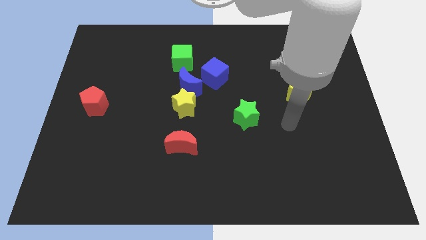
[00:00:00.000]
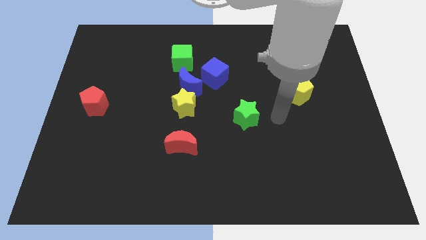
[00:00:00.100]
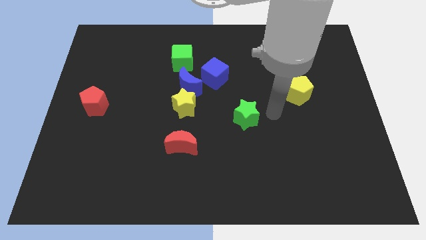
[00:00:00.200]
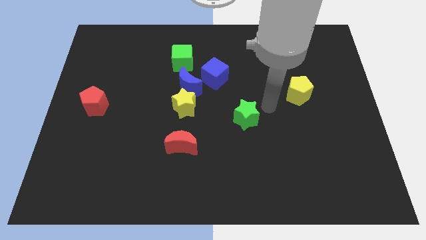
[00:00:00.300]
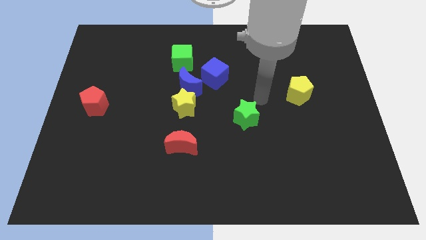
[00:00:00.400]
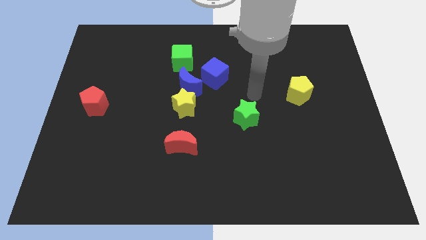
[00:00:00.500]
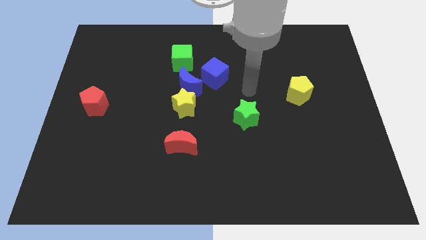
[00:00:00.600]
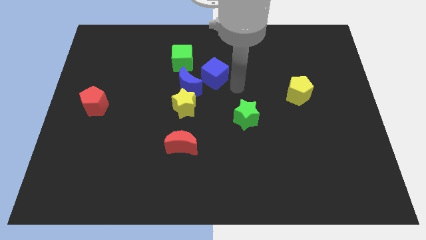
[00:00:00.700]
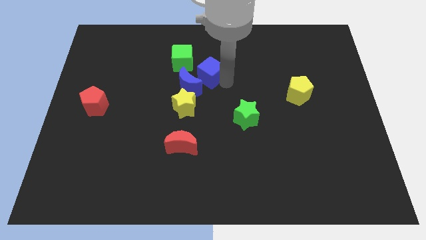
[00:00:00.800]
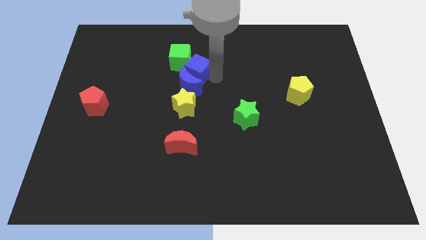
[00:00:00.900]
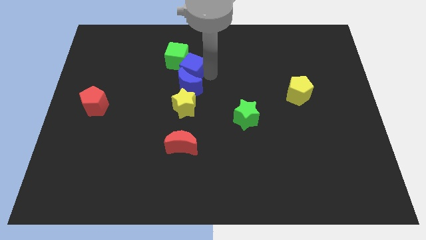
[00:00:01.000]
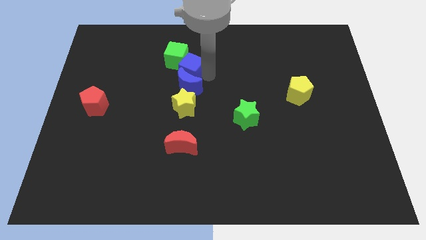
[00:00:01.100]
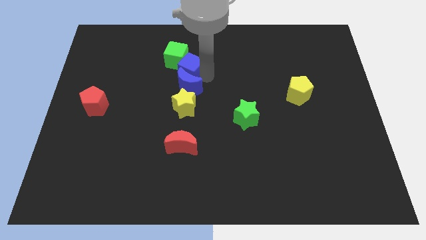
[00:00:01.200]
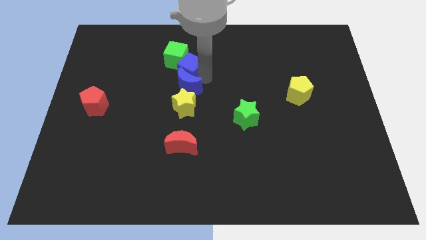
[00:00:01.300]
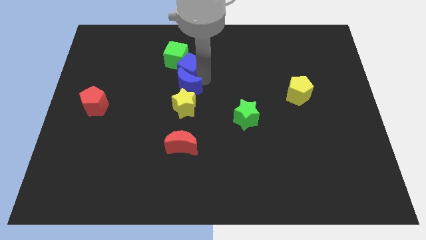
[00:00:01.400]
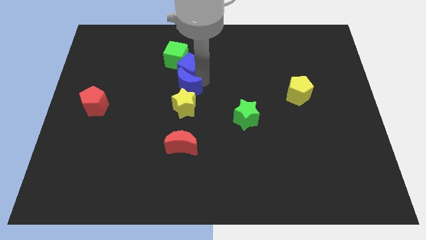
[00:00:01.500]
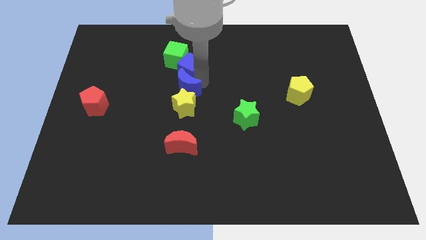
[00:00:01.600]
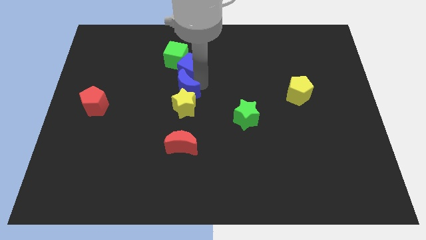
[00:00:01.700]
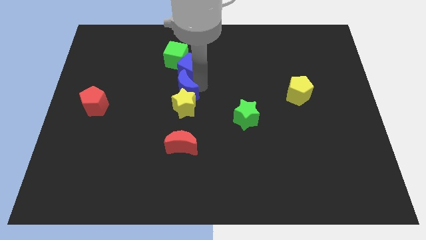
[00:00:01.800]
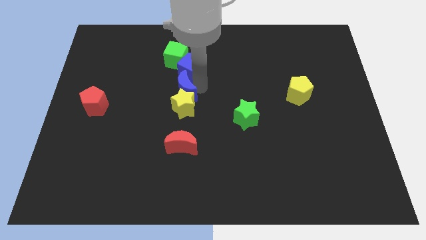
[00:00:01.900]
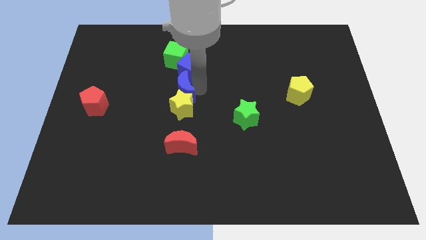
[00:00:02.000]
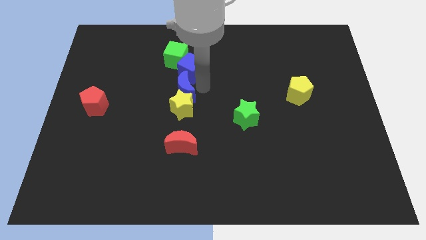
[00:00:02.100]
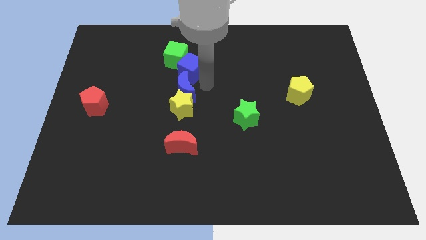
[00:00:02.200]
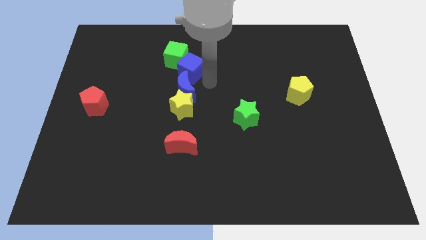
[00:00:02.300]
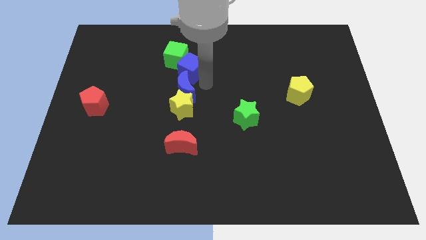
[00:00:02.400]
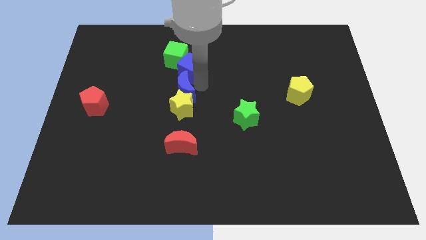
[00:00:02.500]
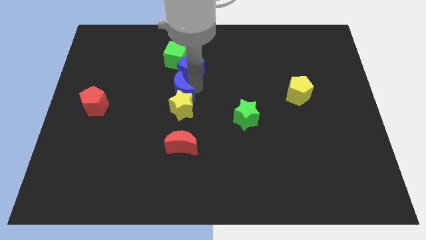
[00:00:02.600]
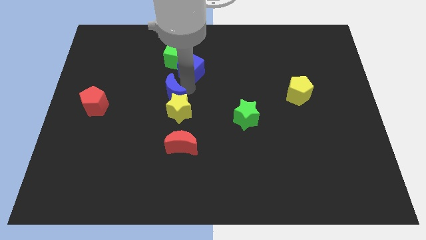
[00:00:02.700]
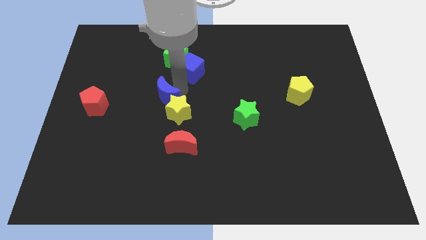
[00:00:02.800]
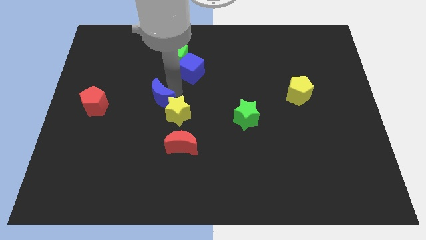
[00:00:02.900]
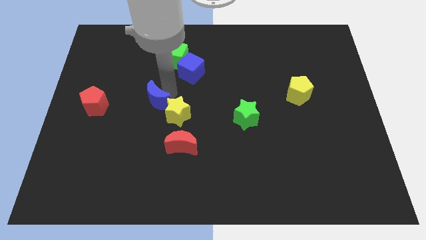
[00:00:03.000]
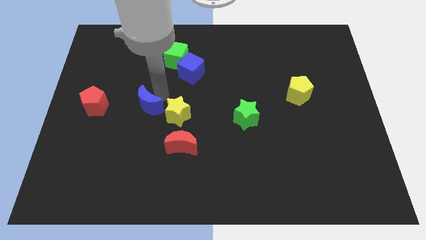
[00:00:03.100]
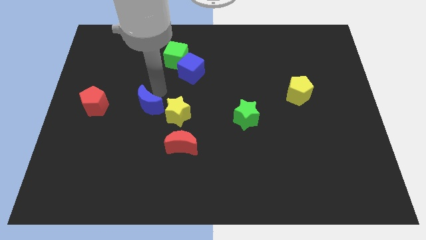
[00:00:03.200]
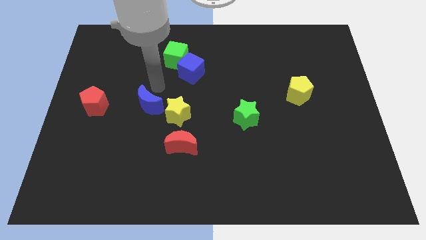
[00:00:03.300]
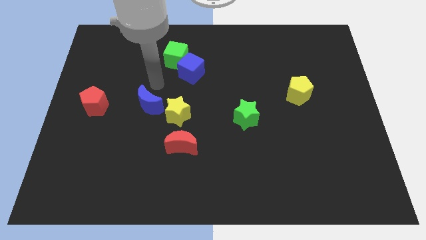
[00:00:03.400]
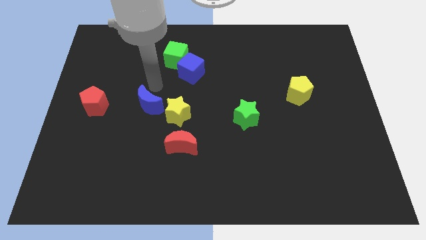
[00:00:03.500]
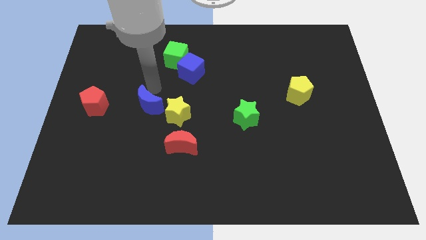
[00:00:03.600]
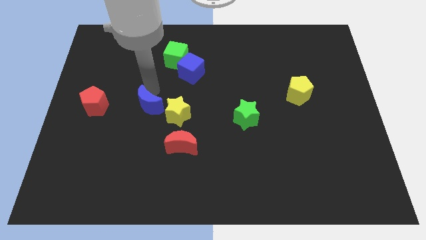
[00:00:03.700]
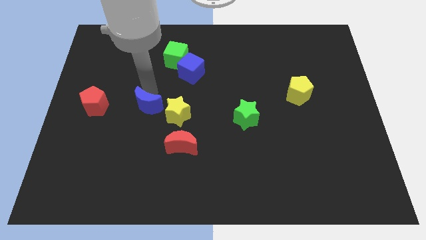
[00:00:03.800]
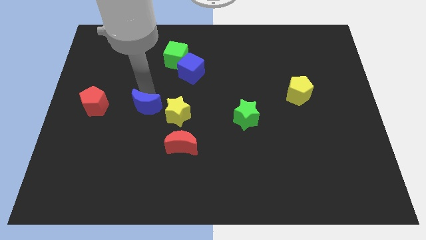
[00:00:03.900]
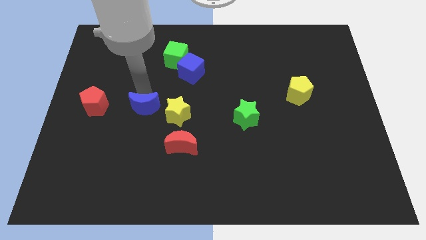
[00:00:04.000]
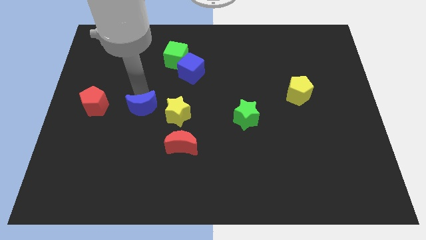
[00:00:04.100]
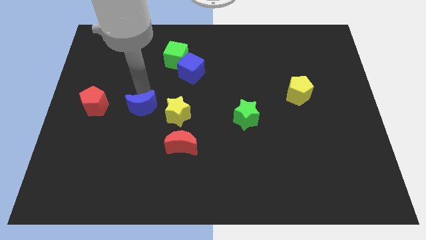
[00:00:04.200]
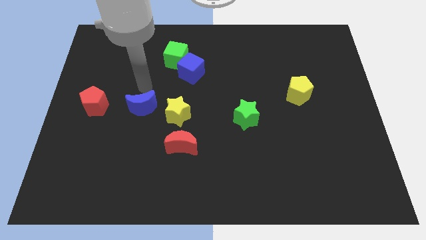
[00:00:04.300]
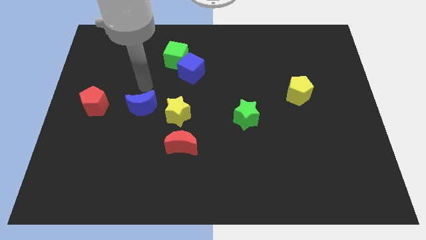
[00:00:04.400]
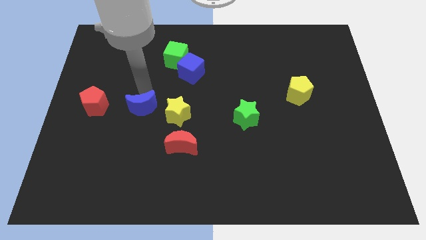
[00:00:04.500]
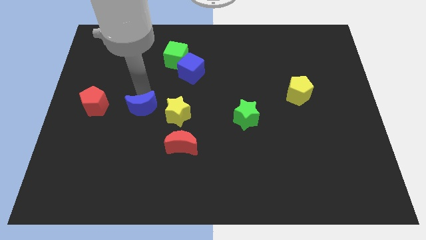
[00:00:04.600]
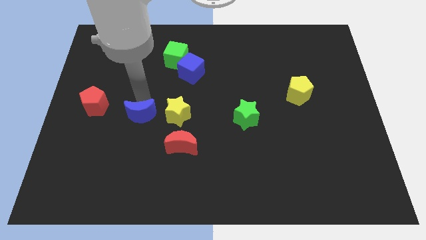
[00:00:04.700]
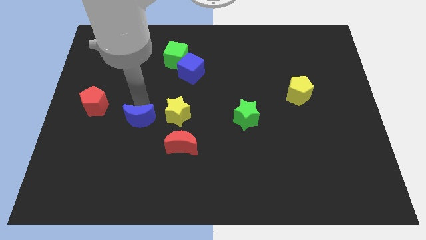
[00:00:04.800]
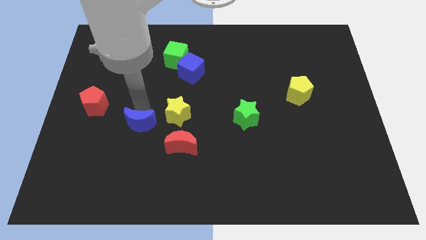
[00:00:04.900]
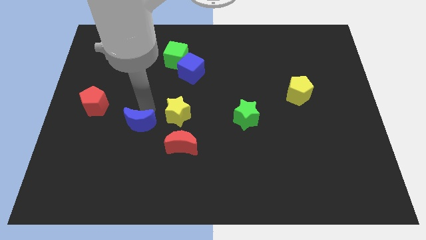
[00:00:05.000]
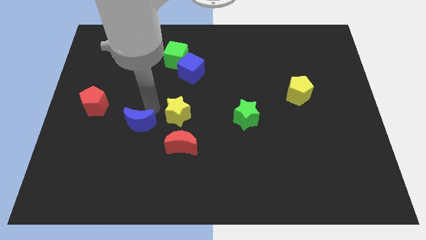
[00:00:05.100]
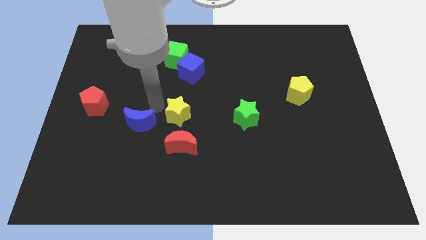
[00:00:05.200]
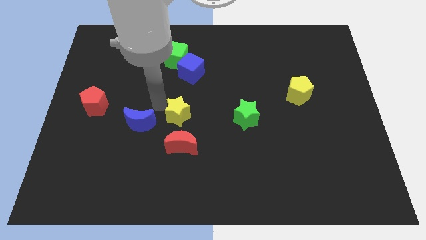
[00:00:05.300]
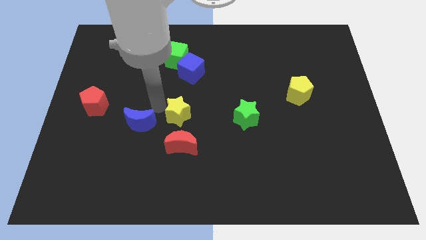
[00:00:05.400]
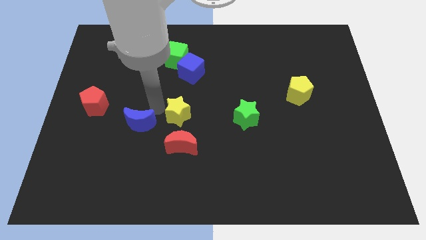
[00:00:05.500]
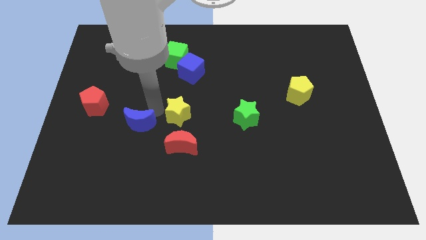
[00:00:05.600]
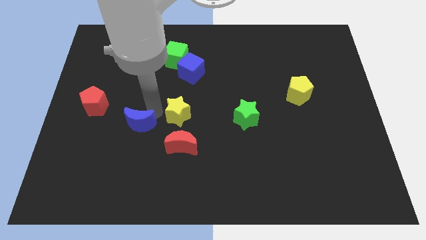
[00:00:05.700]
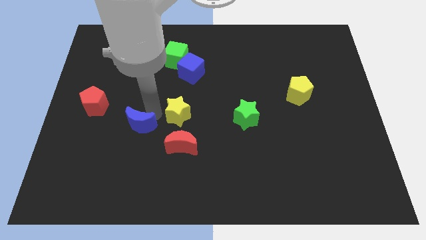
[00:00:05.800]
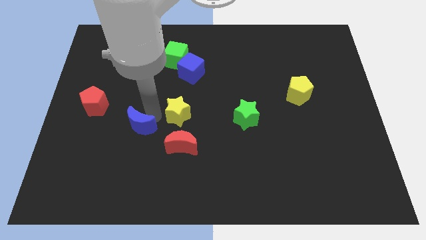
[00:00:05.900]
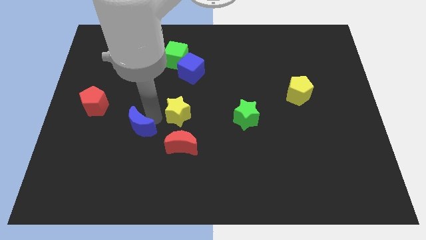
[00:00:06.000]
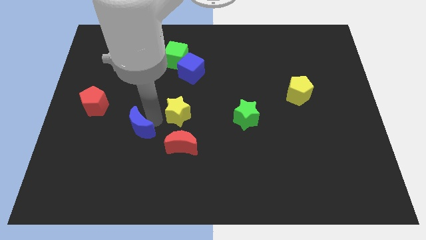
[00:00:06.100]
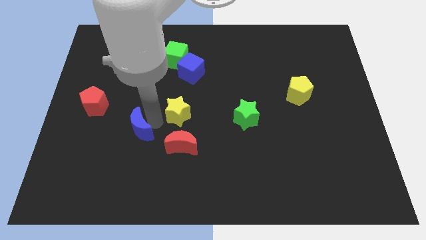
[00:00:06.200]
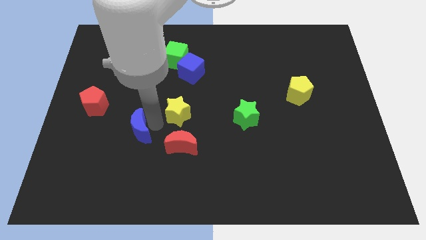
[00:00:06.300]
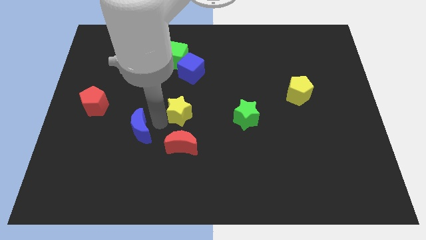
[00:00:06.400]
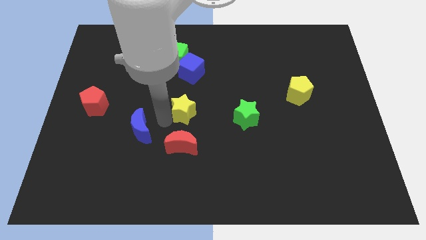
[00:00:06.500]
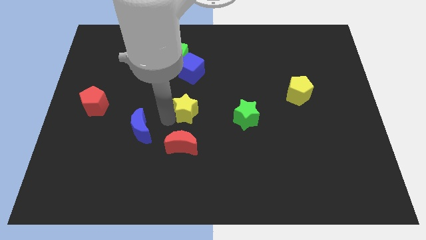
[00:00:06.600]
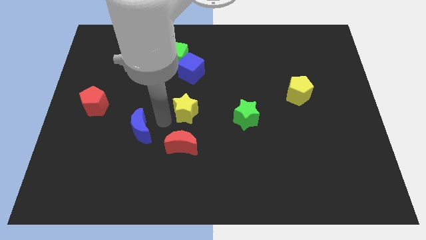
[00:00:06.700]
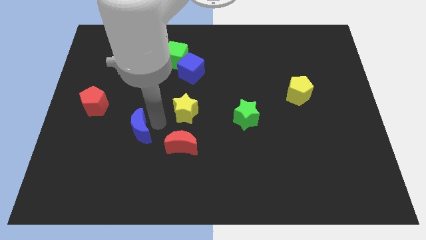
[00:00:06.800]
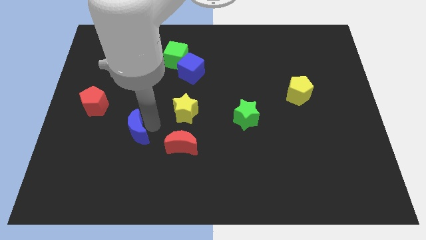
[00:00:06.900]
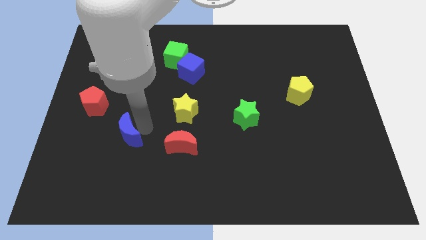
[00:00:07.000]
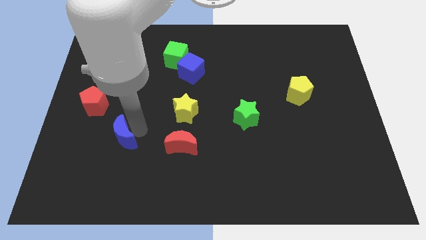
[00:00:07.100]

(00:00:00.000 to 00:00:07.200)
slide the blue moon downwards and left

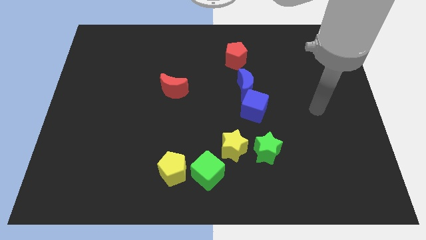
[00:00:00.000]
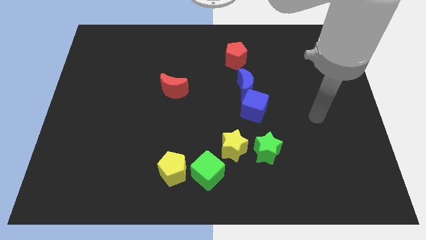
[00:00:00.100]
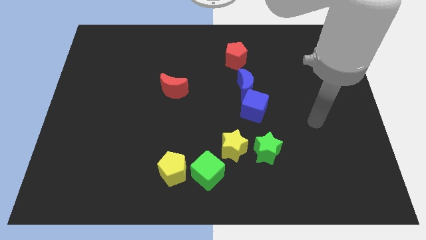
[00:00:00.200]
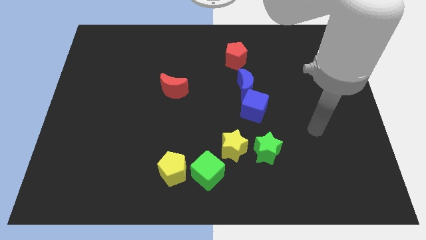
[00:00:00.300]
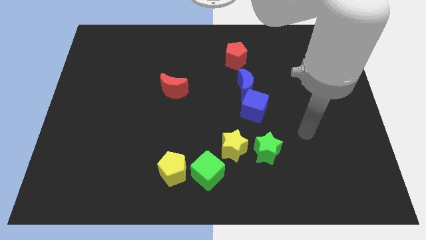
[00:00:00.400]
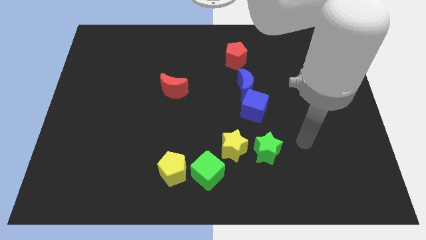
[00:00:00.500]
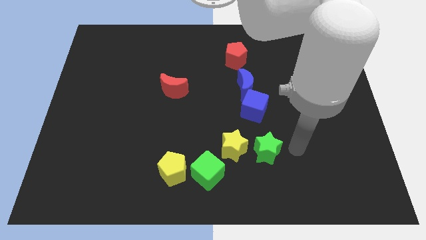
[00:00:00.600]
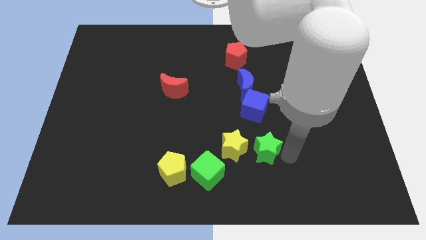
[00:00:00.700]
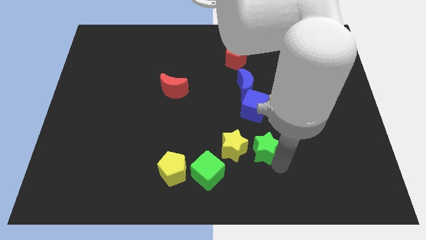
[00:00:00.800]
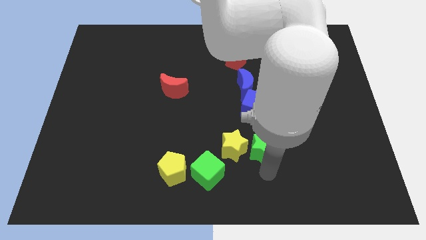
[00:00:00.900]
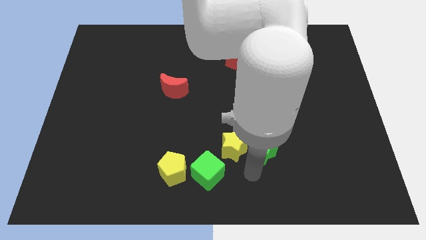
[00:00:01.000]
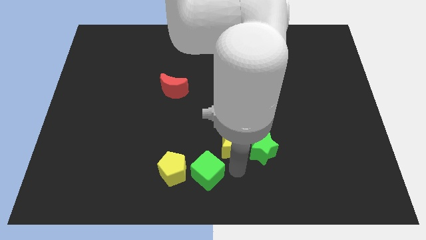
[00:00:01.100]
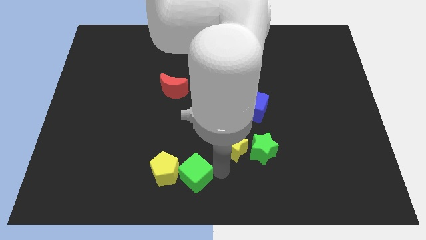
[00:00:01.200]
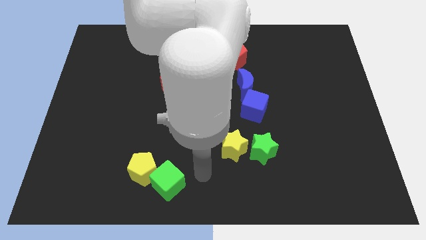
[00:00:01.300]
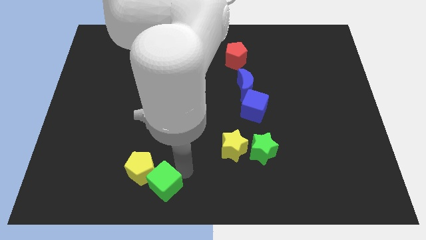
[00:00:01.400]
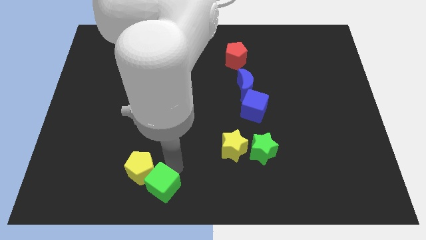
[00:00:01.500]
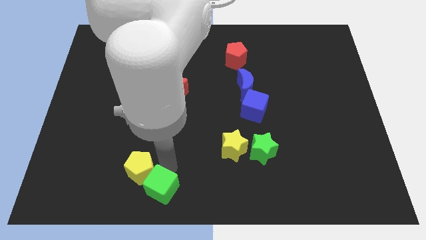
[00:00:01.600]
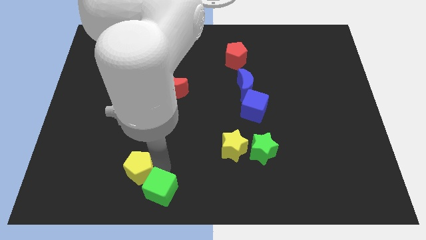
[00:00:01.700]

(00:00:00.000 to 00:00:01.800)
slide the yellow pentagon left a bit
